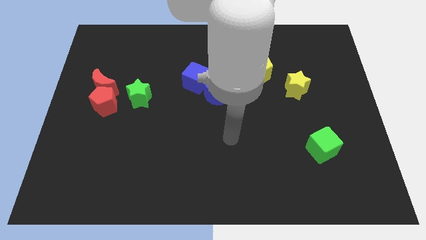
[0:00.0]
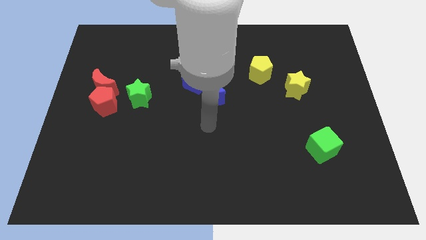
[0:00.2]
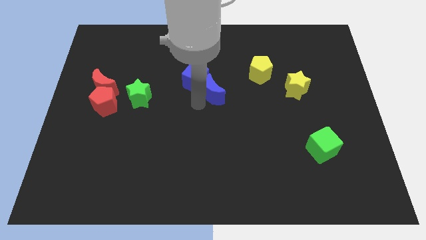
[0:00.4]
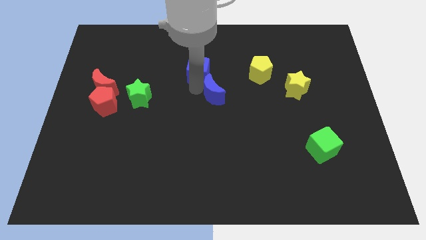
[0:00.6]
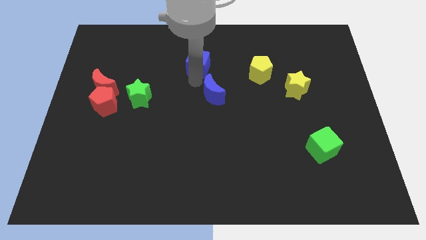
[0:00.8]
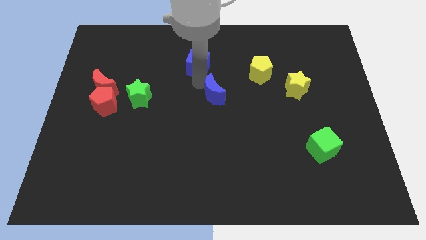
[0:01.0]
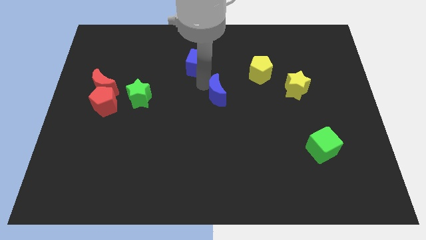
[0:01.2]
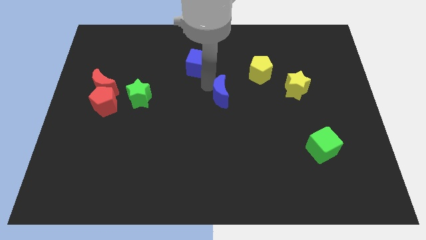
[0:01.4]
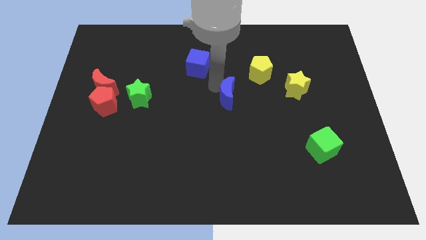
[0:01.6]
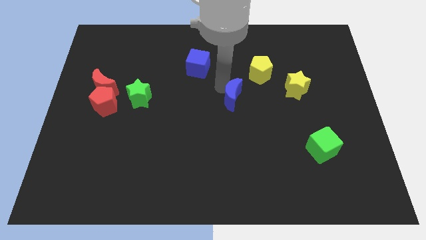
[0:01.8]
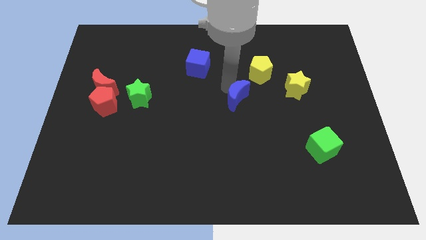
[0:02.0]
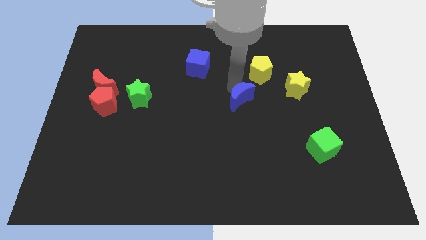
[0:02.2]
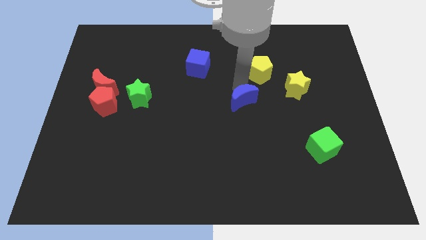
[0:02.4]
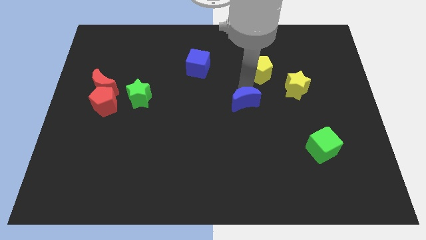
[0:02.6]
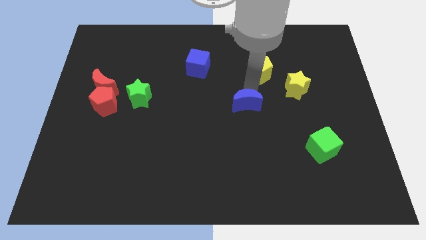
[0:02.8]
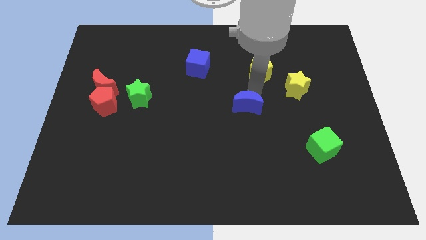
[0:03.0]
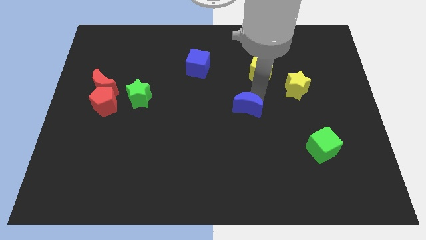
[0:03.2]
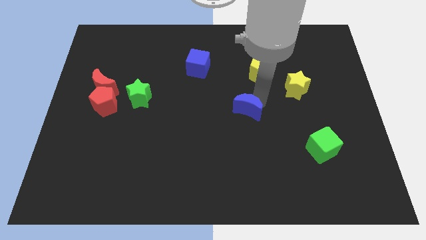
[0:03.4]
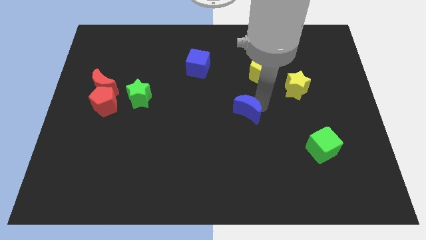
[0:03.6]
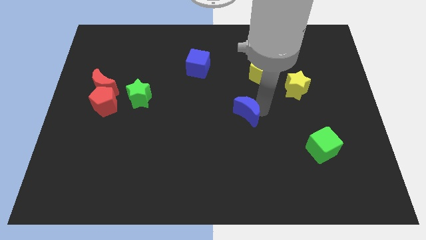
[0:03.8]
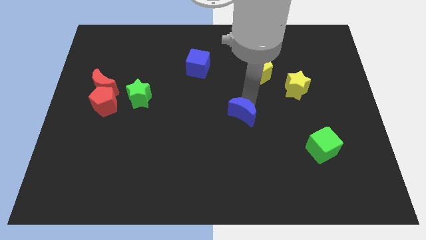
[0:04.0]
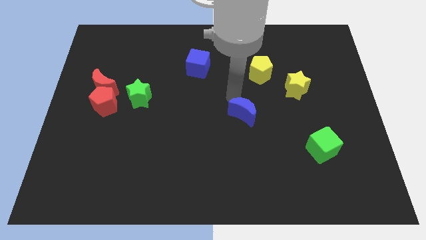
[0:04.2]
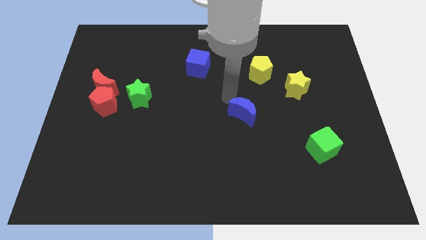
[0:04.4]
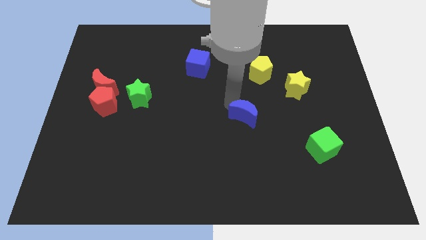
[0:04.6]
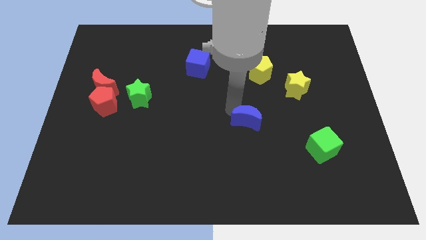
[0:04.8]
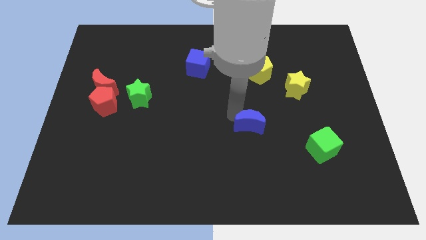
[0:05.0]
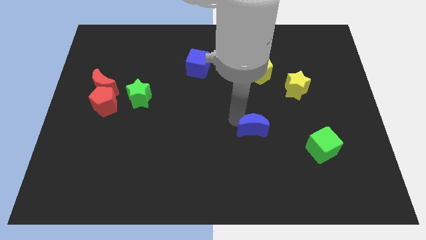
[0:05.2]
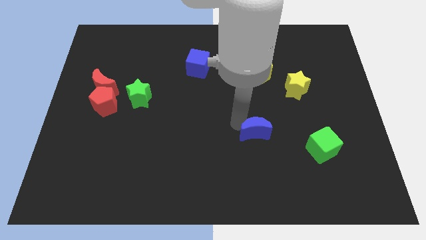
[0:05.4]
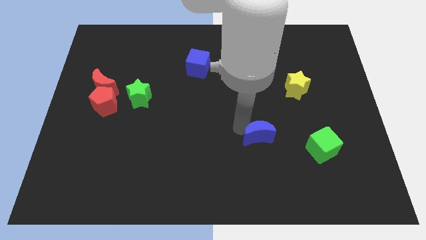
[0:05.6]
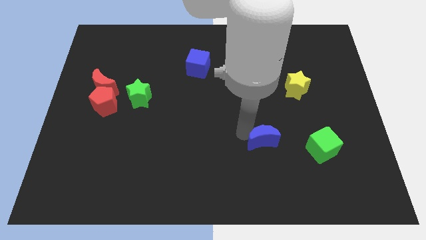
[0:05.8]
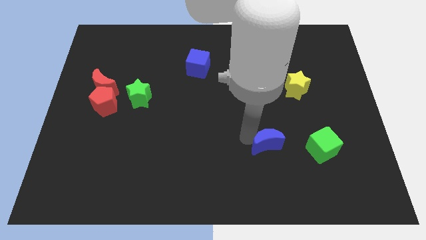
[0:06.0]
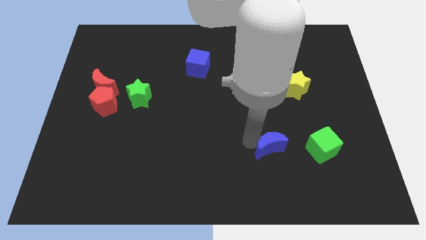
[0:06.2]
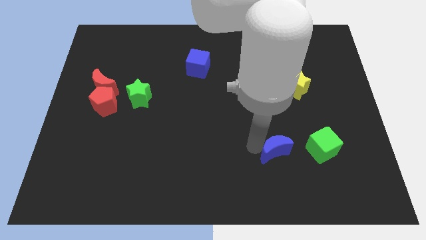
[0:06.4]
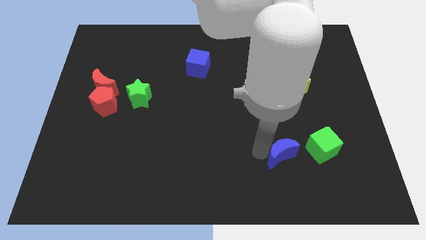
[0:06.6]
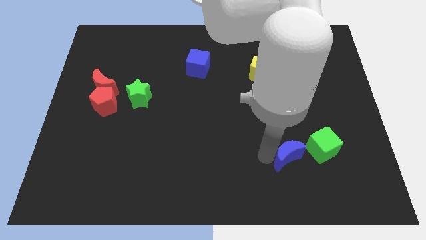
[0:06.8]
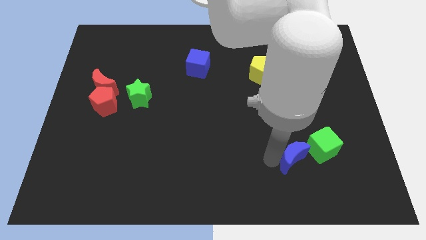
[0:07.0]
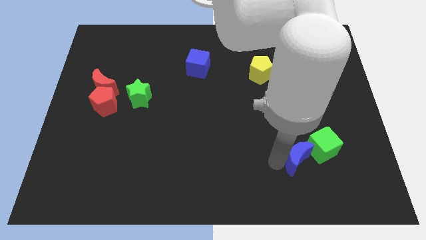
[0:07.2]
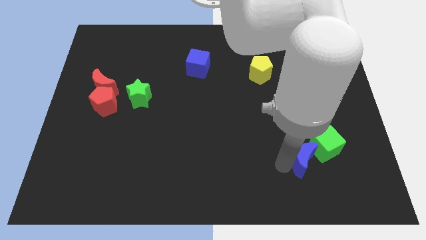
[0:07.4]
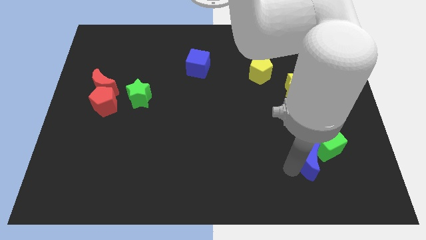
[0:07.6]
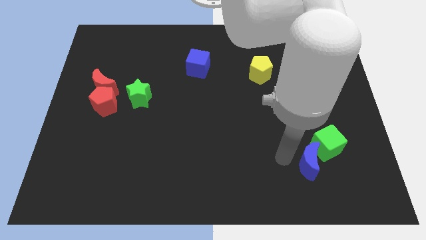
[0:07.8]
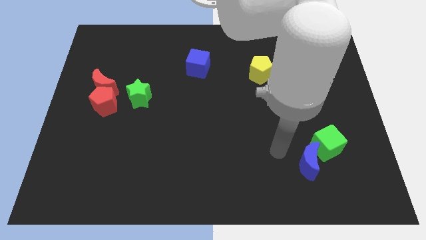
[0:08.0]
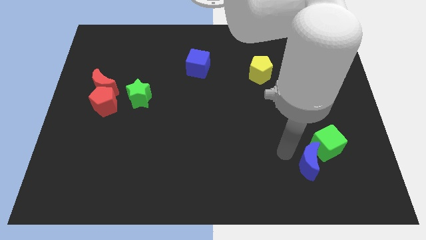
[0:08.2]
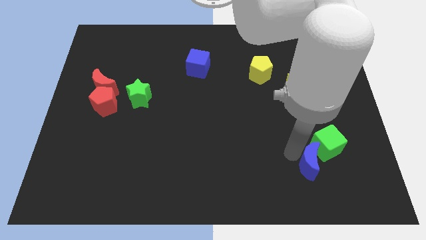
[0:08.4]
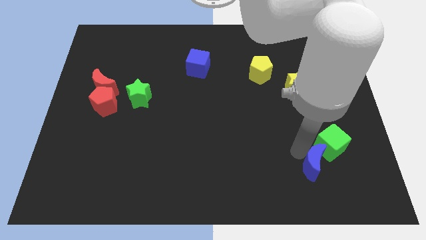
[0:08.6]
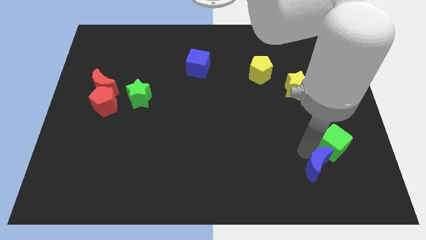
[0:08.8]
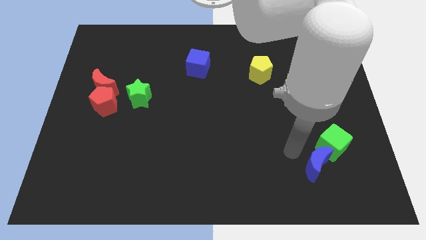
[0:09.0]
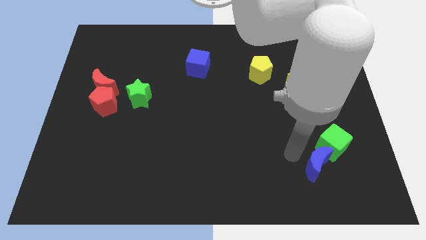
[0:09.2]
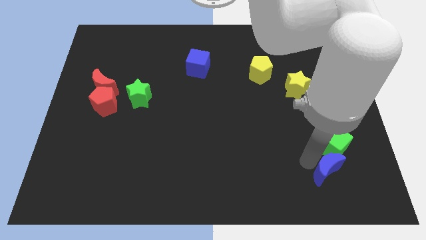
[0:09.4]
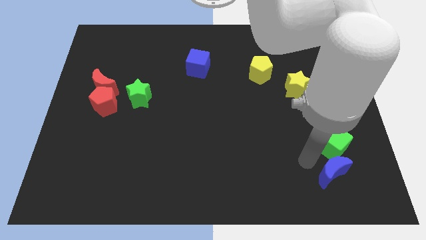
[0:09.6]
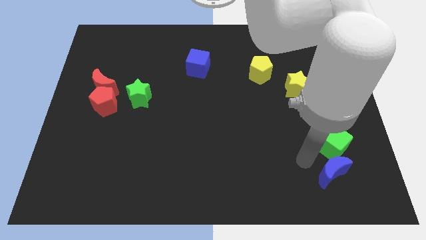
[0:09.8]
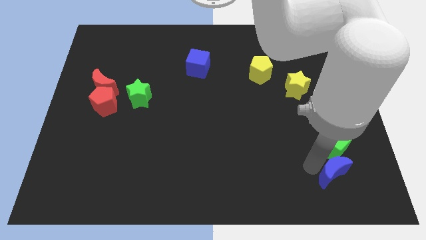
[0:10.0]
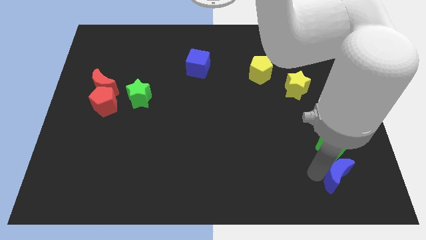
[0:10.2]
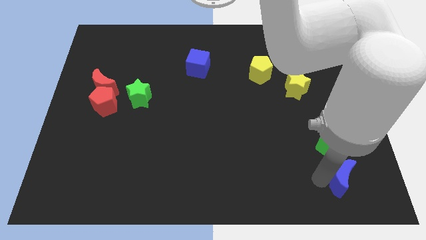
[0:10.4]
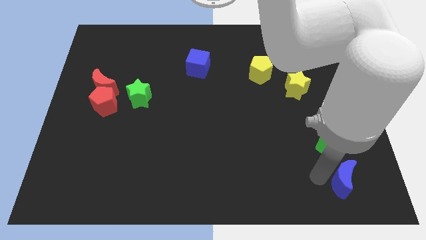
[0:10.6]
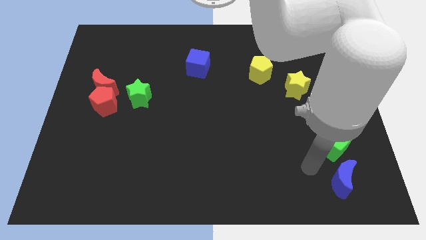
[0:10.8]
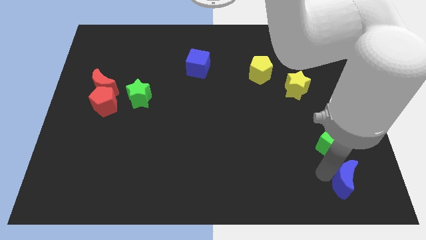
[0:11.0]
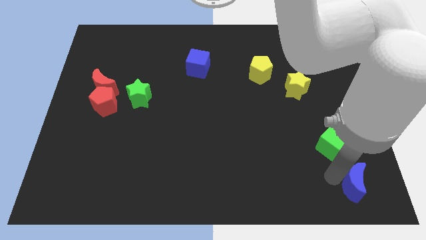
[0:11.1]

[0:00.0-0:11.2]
push the blue moon to the bottom right of the board

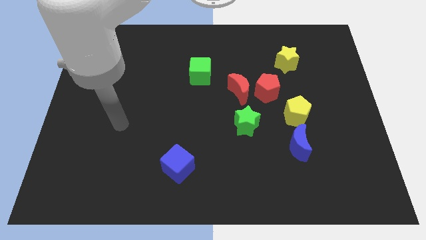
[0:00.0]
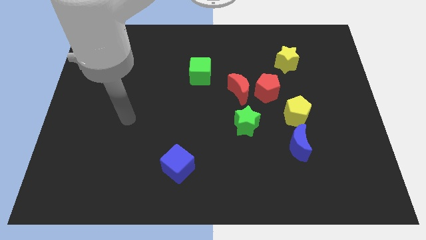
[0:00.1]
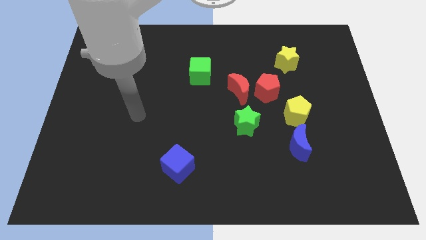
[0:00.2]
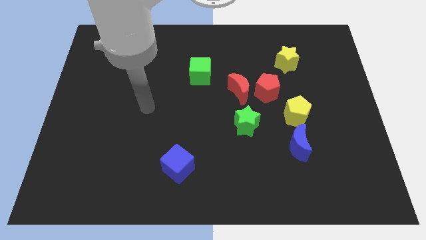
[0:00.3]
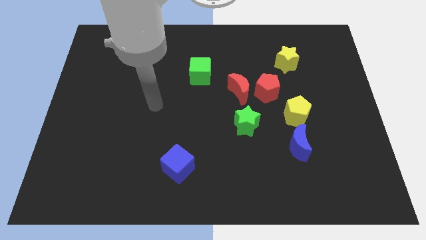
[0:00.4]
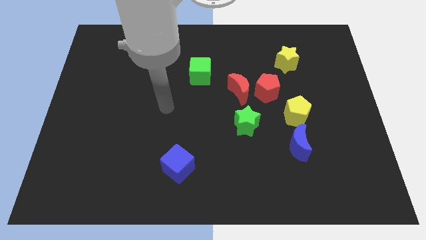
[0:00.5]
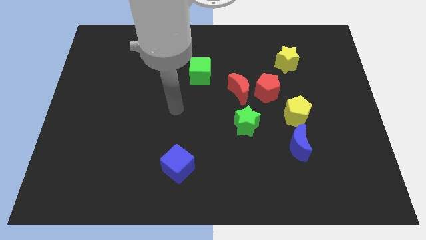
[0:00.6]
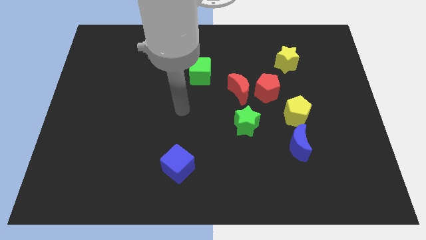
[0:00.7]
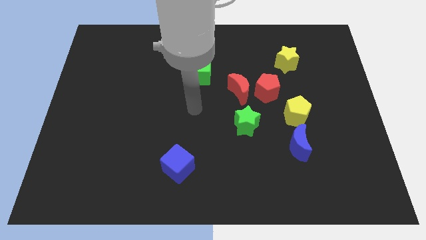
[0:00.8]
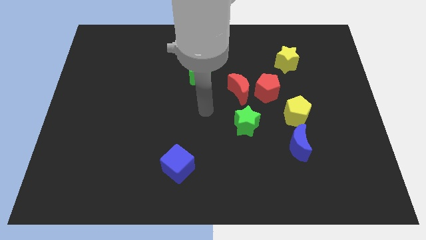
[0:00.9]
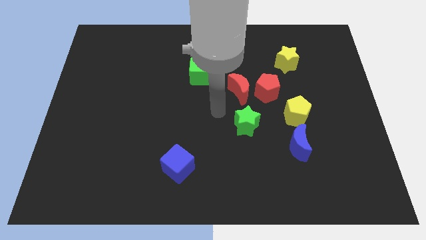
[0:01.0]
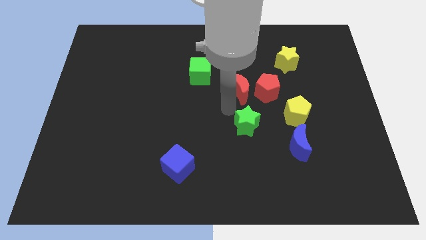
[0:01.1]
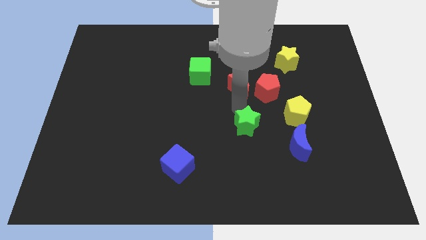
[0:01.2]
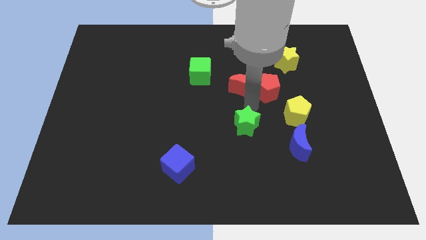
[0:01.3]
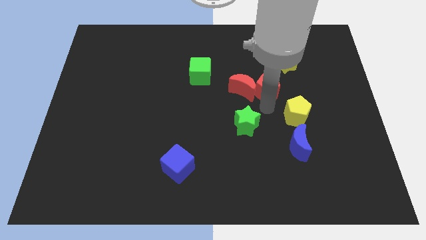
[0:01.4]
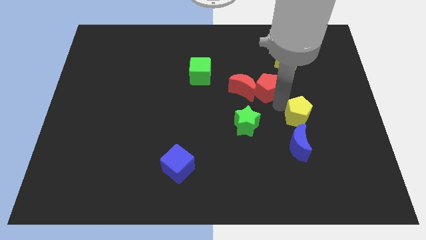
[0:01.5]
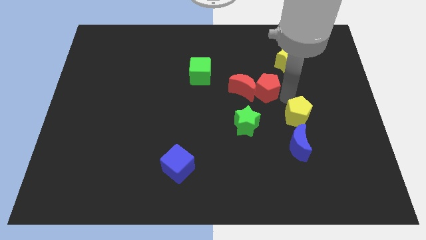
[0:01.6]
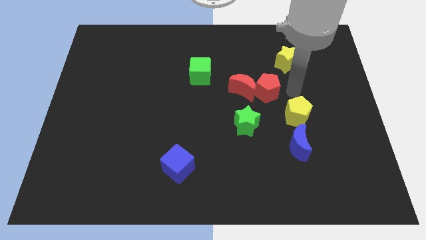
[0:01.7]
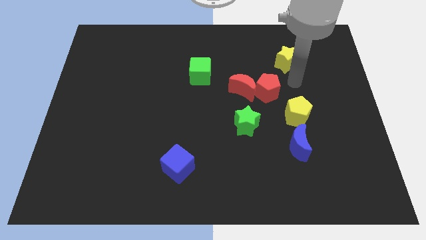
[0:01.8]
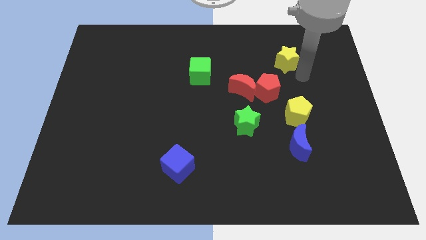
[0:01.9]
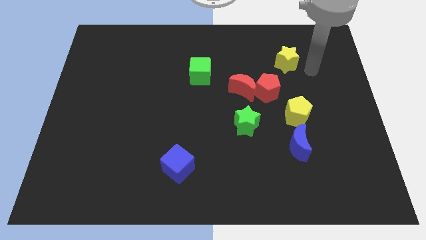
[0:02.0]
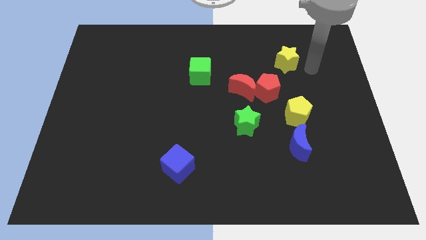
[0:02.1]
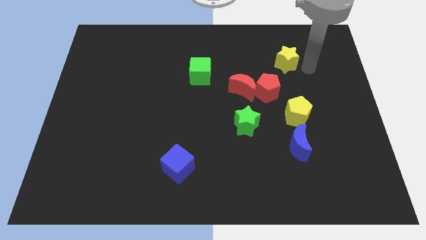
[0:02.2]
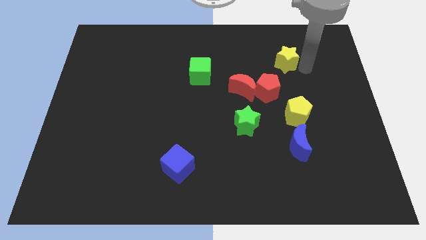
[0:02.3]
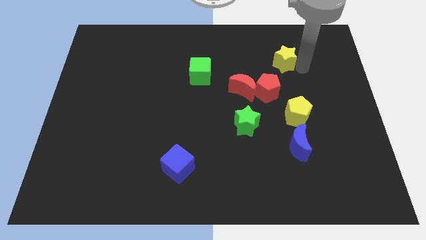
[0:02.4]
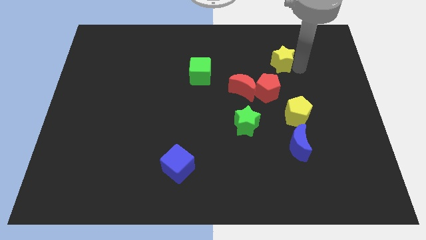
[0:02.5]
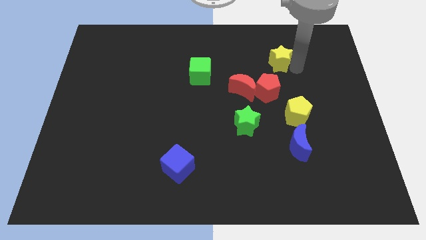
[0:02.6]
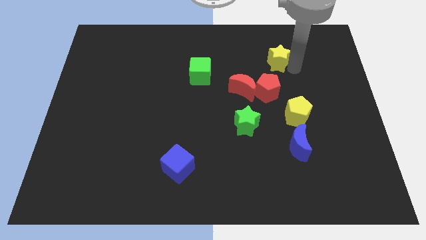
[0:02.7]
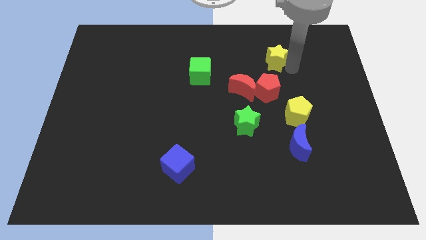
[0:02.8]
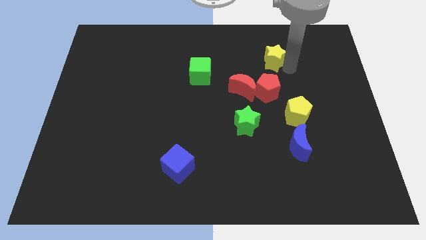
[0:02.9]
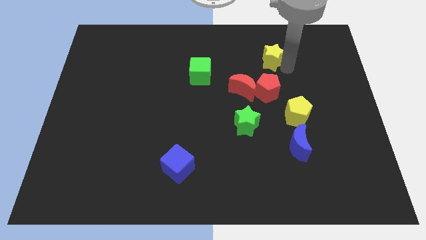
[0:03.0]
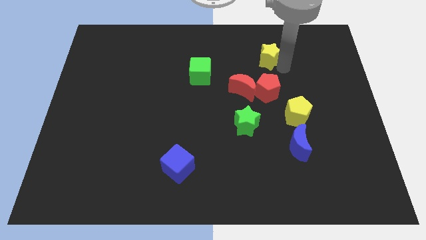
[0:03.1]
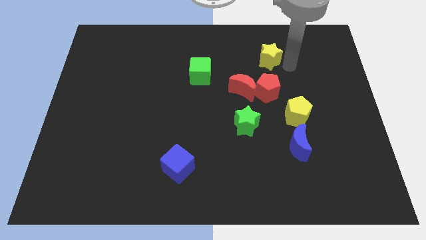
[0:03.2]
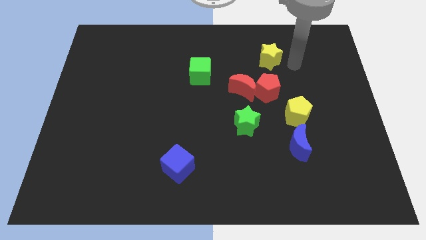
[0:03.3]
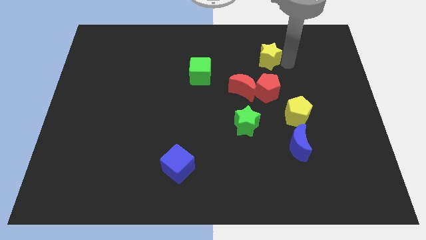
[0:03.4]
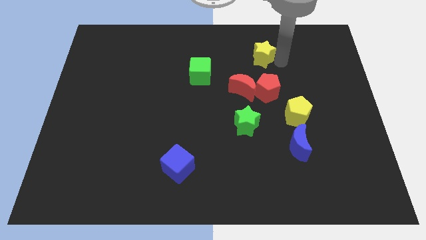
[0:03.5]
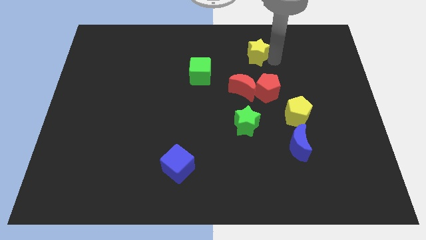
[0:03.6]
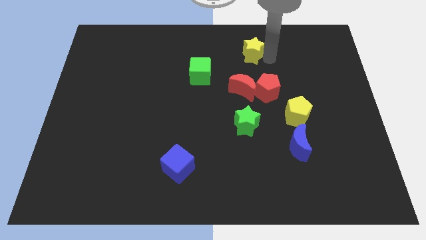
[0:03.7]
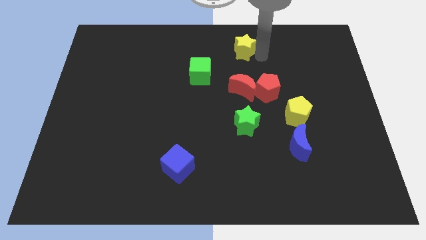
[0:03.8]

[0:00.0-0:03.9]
push the yellow star to the top
